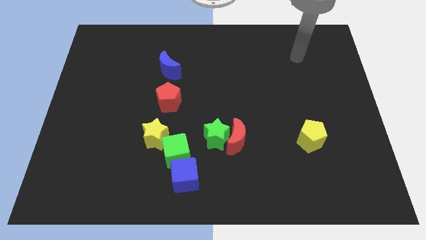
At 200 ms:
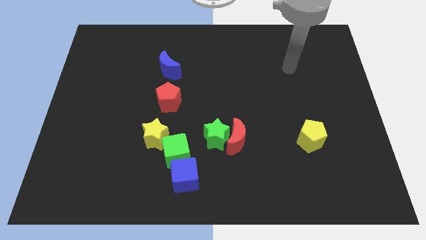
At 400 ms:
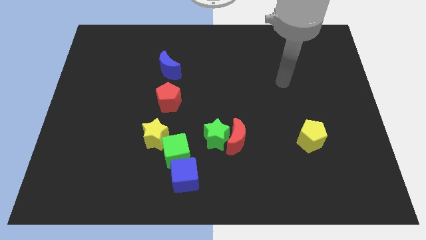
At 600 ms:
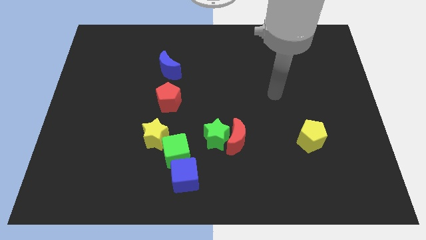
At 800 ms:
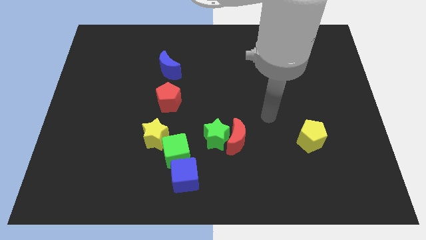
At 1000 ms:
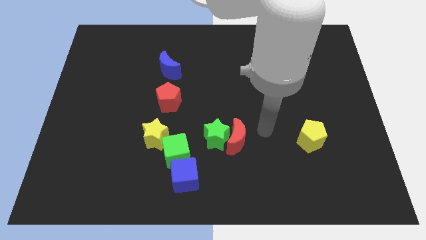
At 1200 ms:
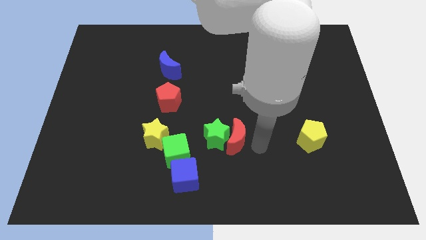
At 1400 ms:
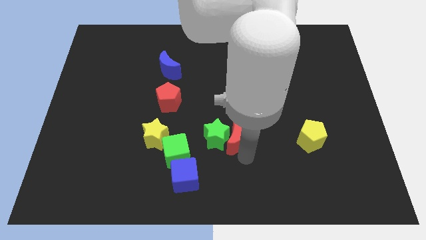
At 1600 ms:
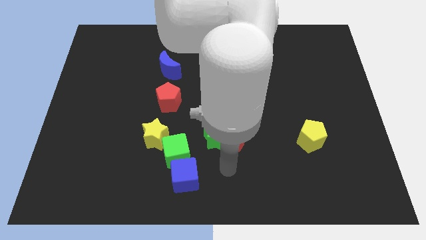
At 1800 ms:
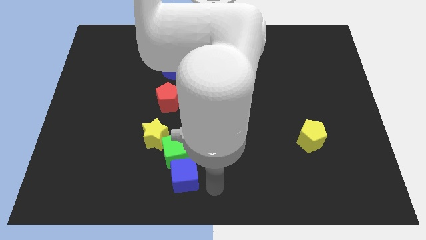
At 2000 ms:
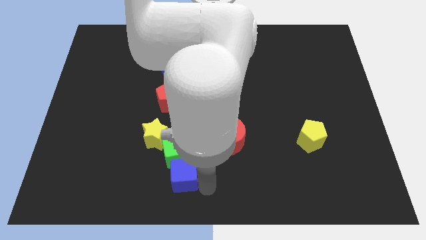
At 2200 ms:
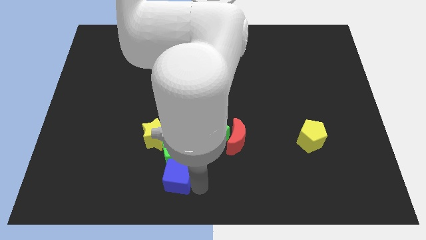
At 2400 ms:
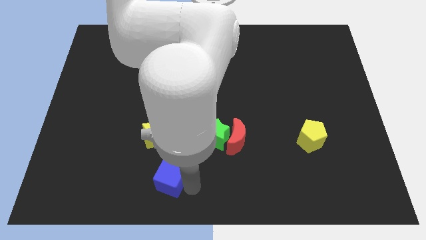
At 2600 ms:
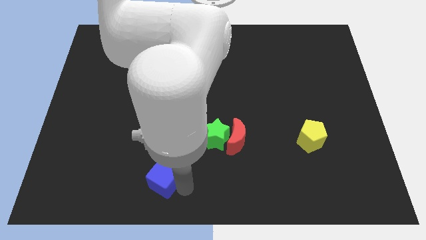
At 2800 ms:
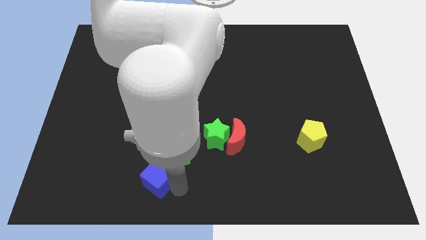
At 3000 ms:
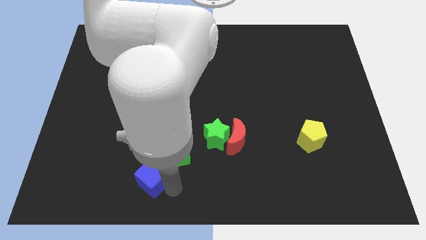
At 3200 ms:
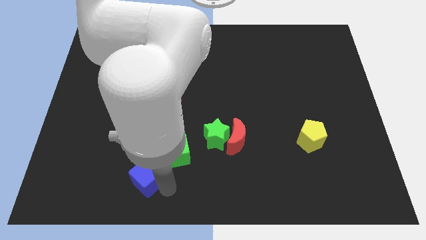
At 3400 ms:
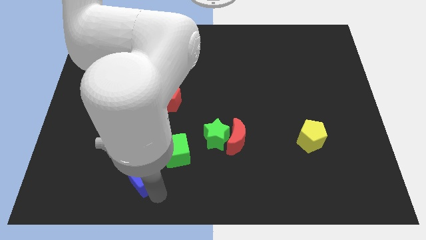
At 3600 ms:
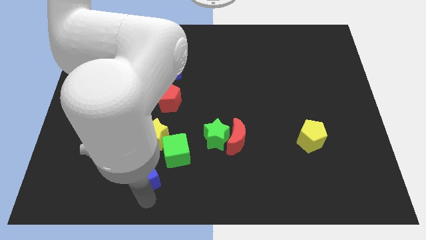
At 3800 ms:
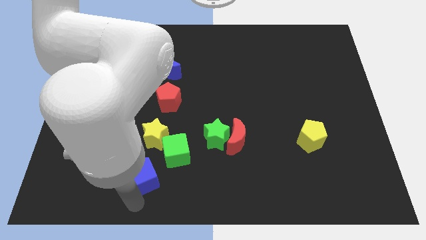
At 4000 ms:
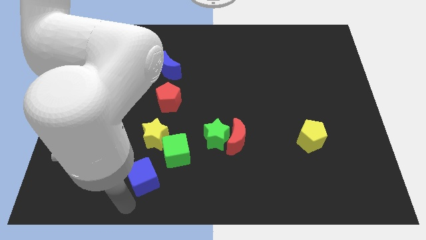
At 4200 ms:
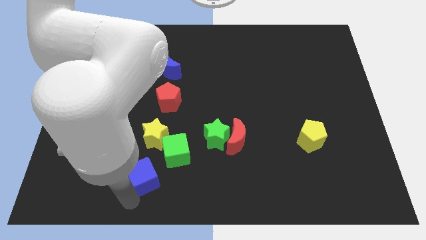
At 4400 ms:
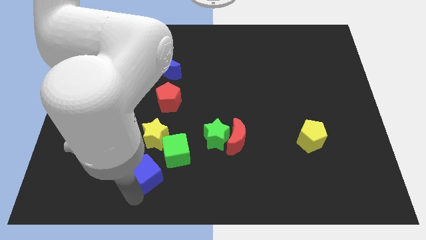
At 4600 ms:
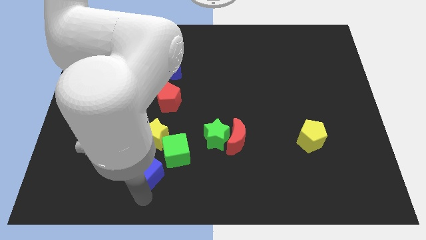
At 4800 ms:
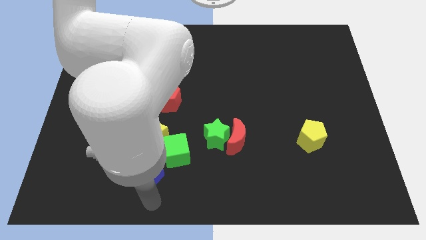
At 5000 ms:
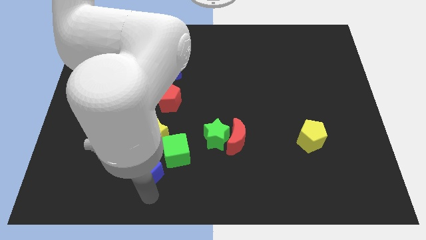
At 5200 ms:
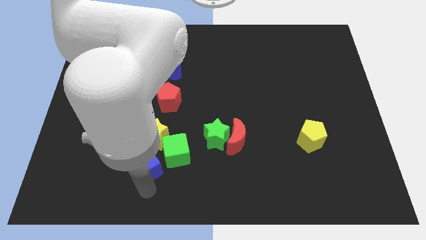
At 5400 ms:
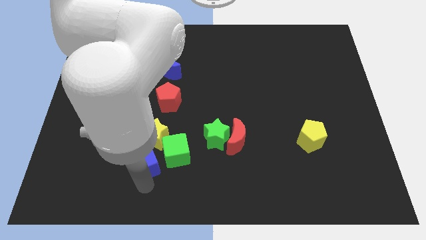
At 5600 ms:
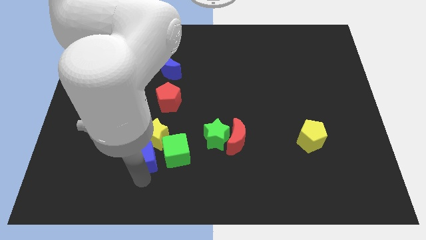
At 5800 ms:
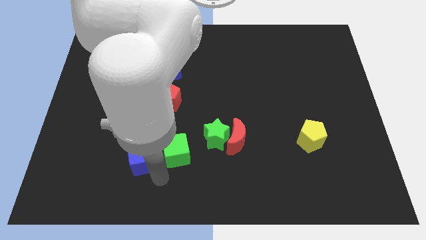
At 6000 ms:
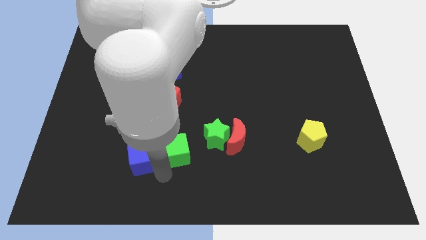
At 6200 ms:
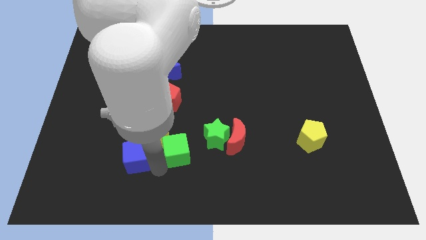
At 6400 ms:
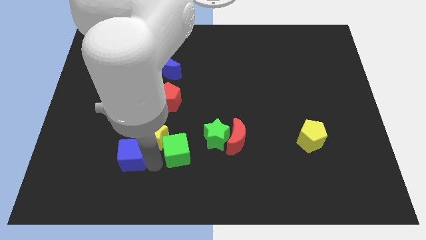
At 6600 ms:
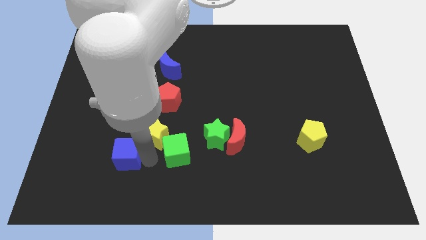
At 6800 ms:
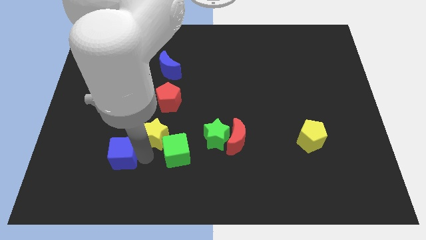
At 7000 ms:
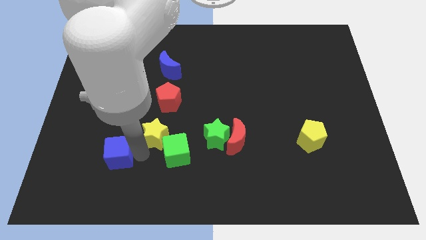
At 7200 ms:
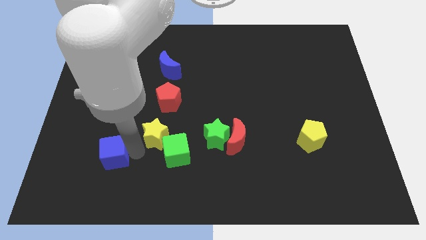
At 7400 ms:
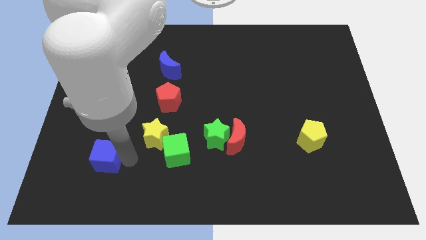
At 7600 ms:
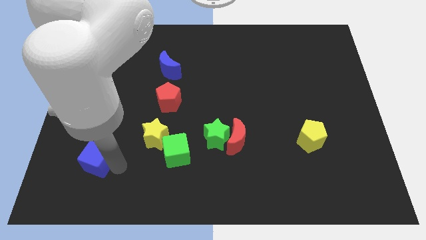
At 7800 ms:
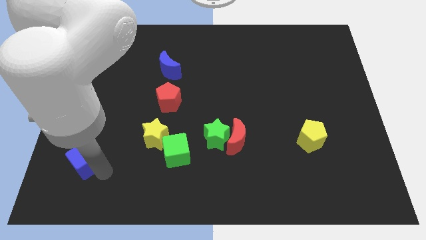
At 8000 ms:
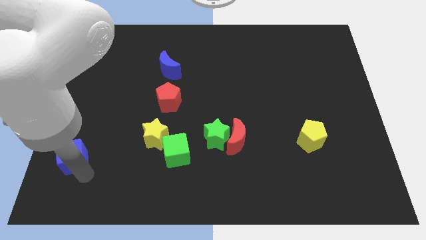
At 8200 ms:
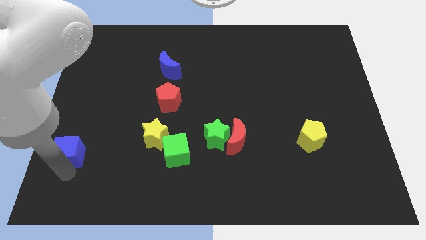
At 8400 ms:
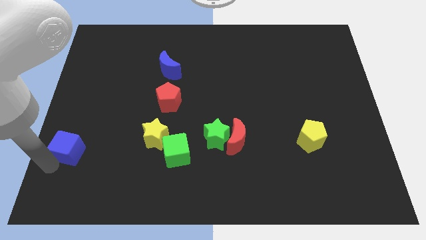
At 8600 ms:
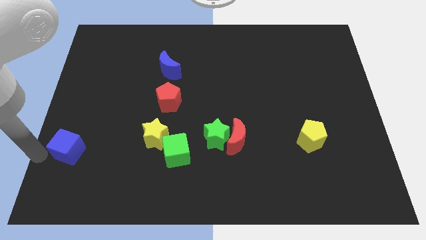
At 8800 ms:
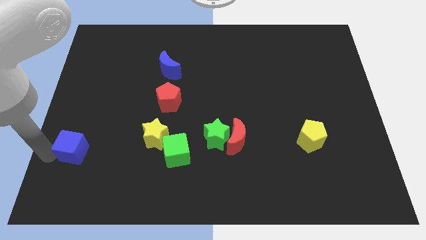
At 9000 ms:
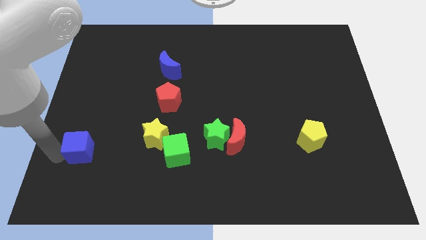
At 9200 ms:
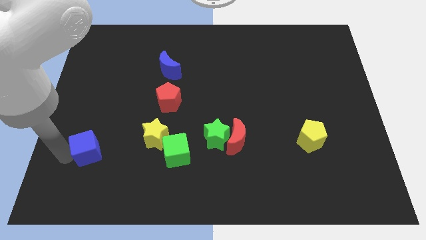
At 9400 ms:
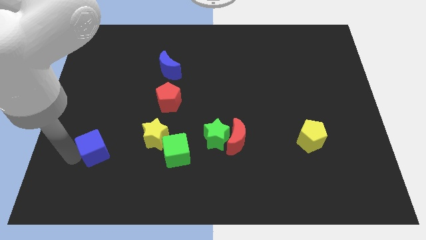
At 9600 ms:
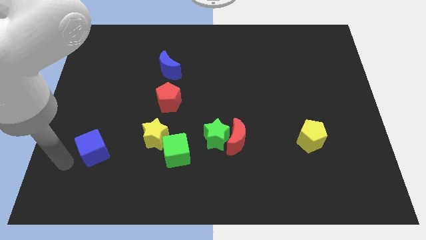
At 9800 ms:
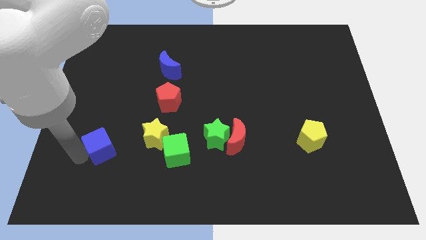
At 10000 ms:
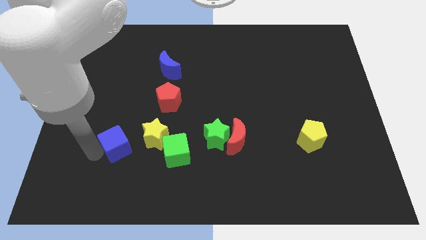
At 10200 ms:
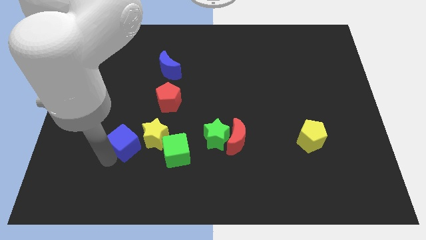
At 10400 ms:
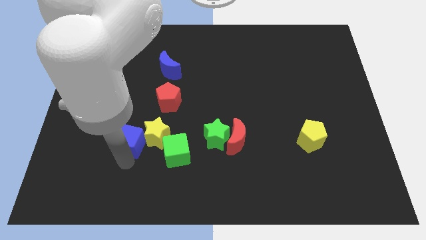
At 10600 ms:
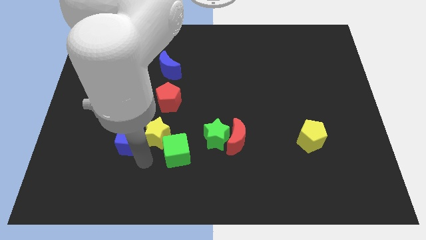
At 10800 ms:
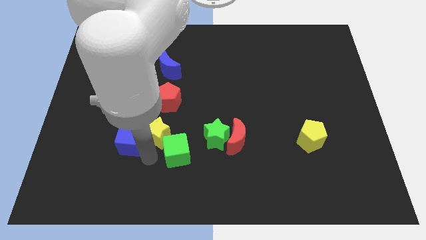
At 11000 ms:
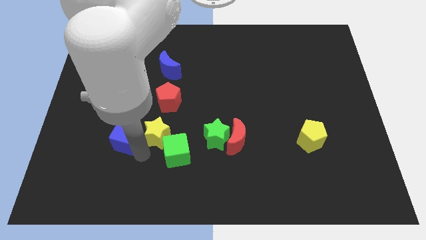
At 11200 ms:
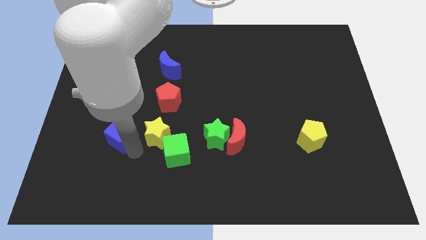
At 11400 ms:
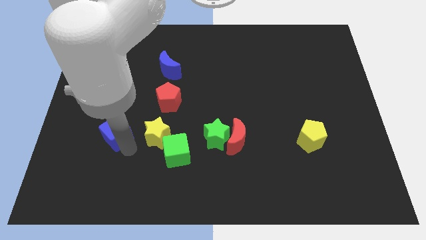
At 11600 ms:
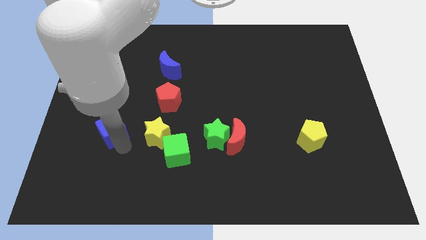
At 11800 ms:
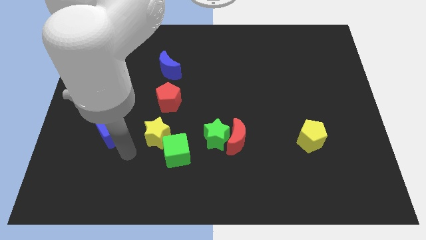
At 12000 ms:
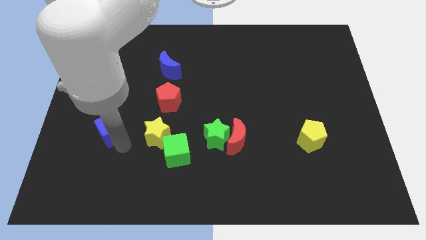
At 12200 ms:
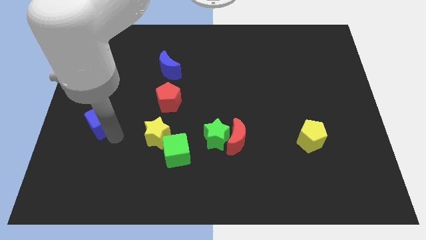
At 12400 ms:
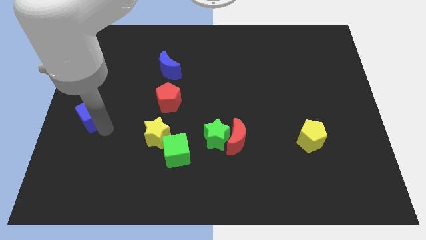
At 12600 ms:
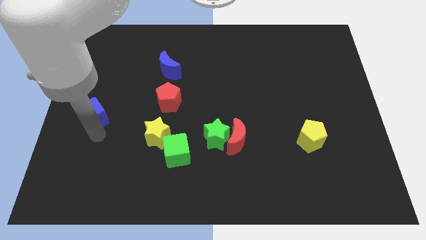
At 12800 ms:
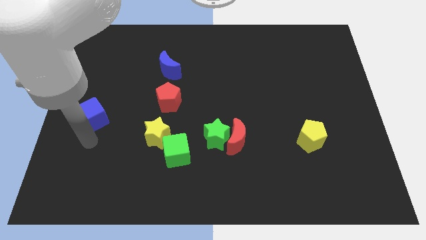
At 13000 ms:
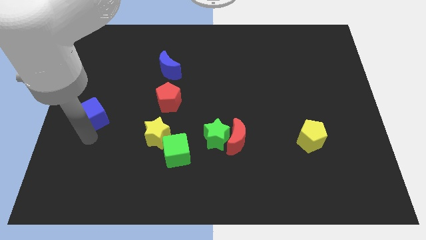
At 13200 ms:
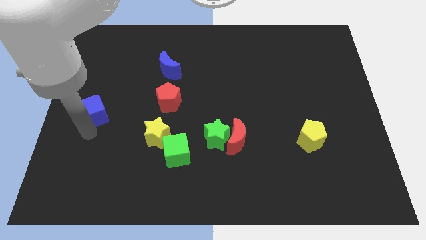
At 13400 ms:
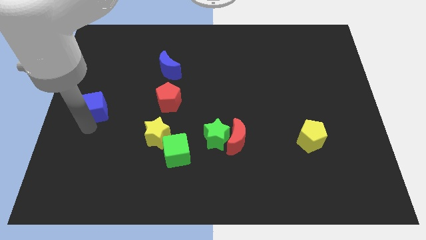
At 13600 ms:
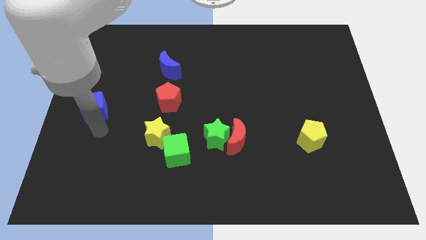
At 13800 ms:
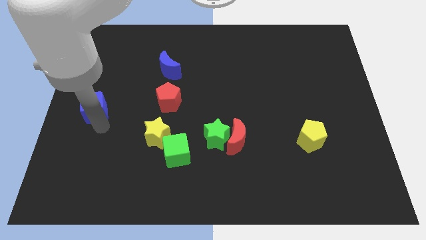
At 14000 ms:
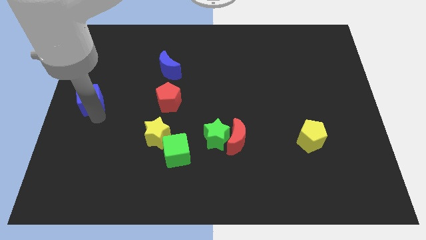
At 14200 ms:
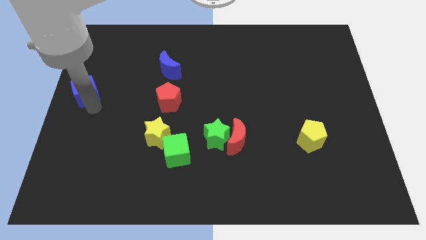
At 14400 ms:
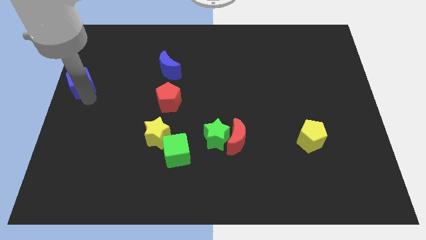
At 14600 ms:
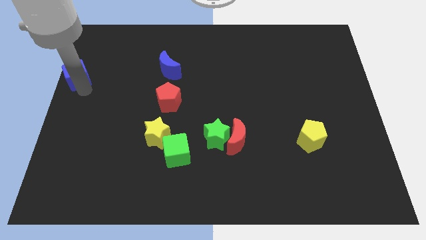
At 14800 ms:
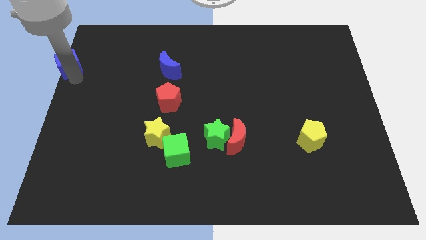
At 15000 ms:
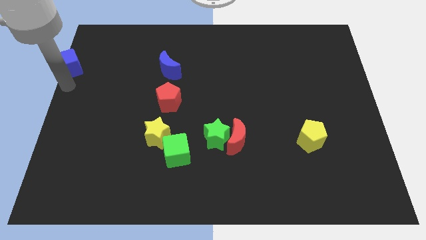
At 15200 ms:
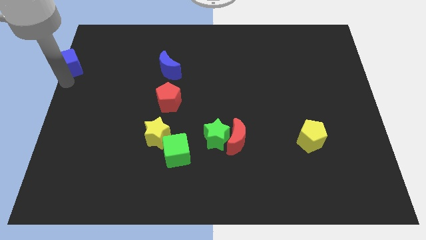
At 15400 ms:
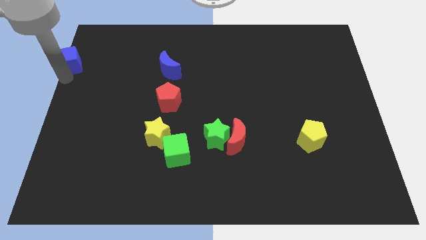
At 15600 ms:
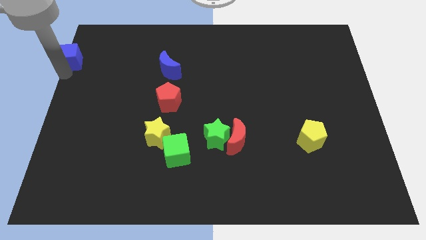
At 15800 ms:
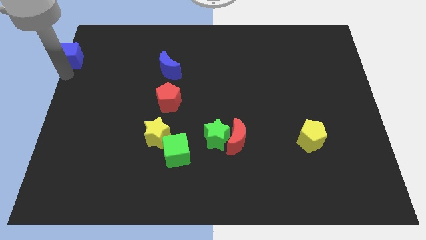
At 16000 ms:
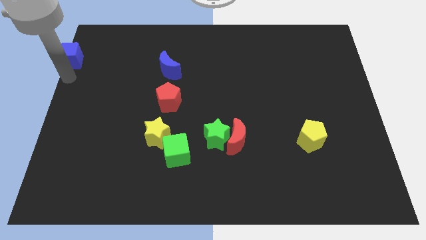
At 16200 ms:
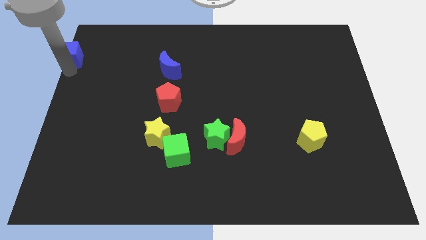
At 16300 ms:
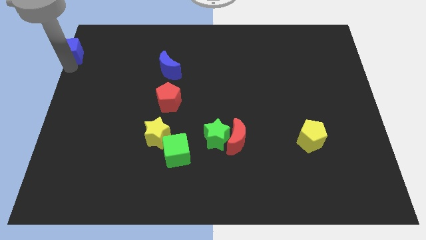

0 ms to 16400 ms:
move the blue cube to the top left of the board
